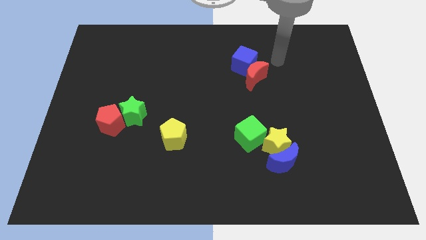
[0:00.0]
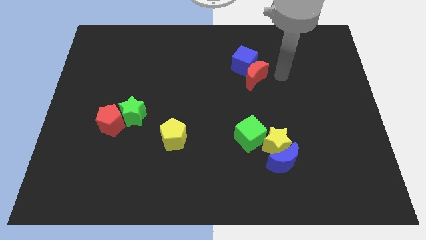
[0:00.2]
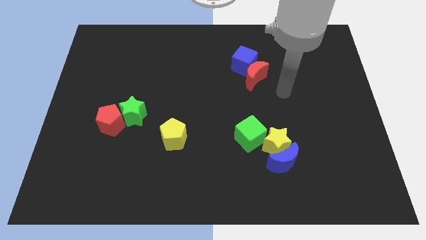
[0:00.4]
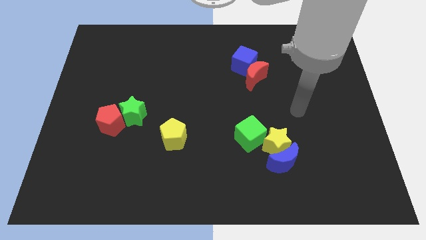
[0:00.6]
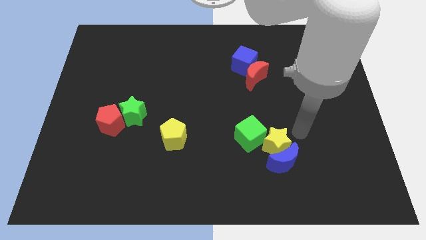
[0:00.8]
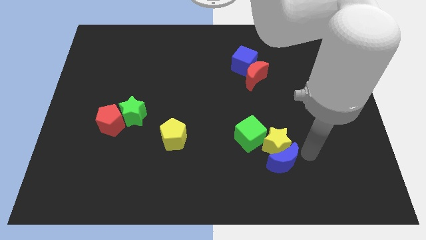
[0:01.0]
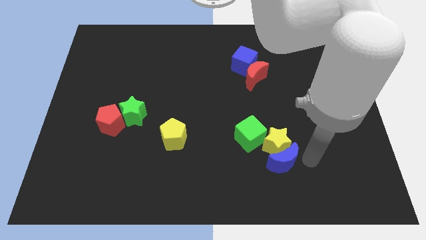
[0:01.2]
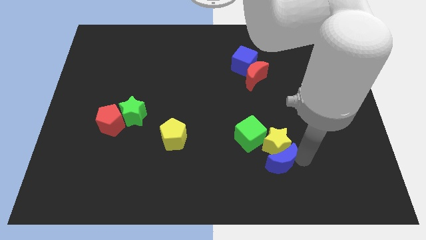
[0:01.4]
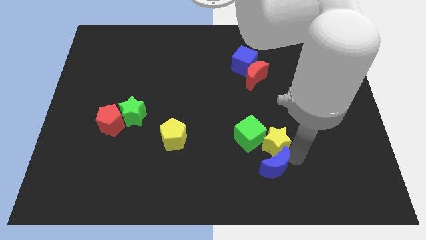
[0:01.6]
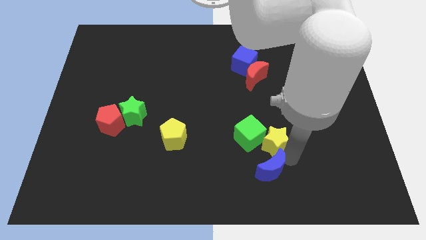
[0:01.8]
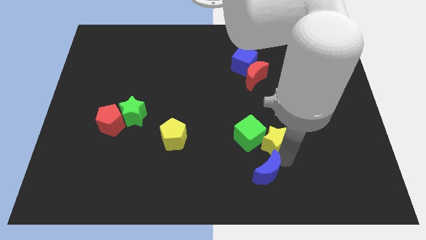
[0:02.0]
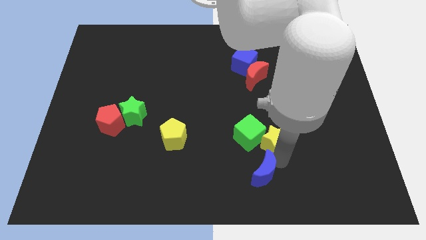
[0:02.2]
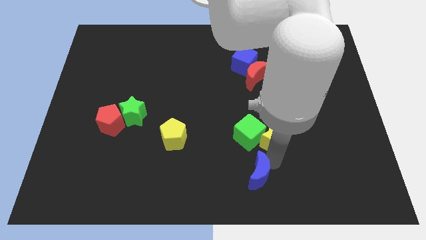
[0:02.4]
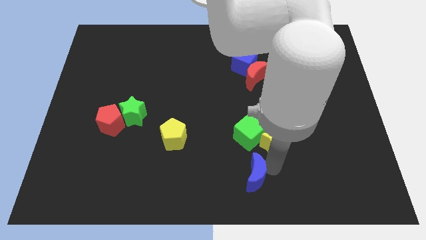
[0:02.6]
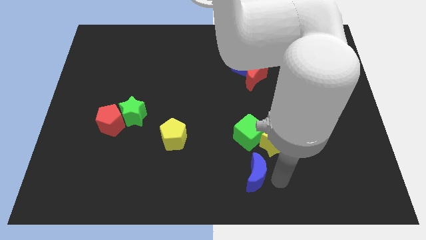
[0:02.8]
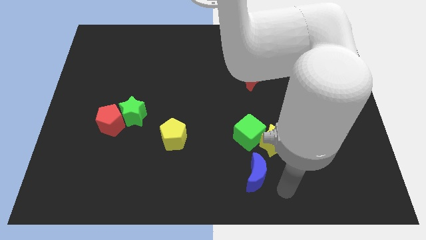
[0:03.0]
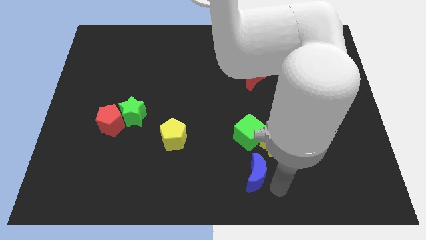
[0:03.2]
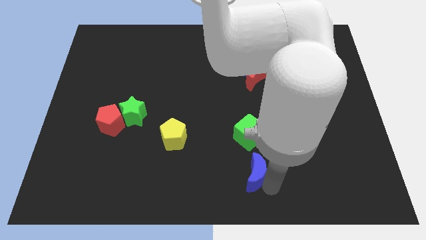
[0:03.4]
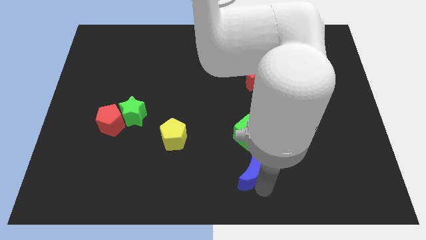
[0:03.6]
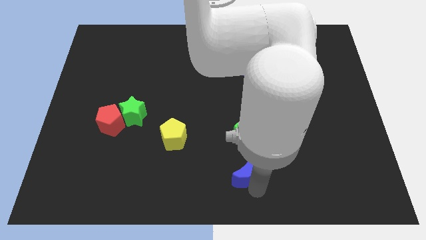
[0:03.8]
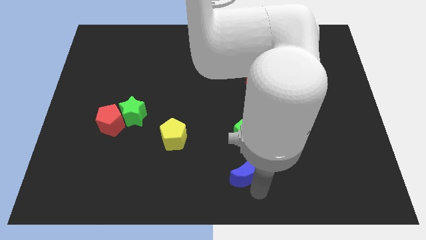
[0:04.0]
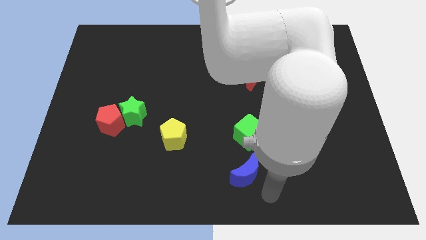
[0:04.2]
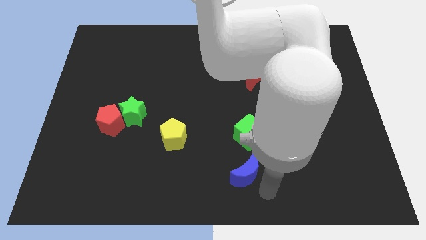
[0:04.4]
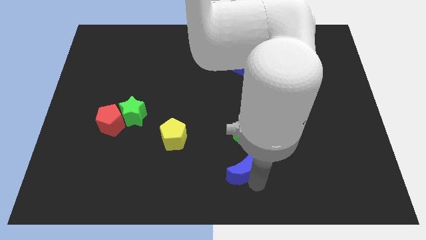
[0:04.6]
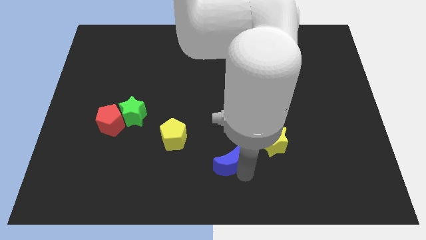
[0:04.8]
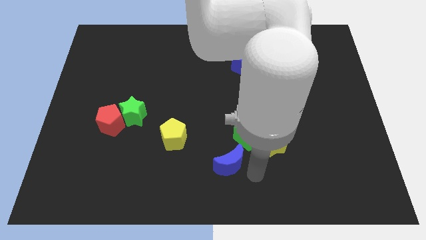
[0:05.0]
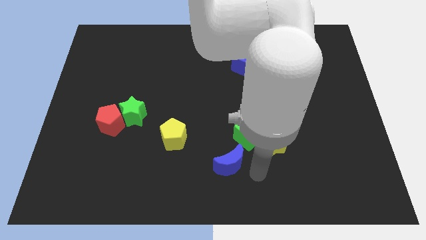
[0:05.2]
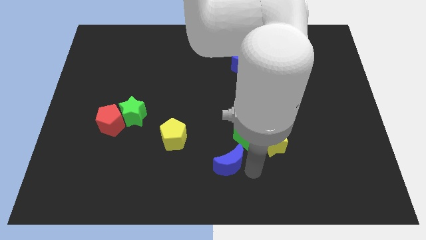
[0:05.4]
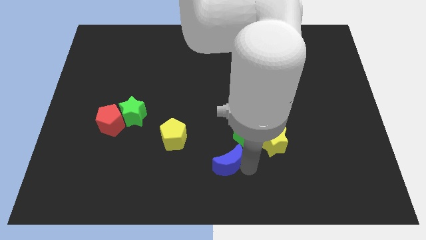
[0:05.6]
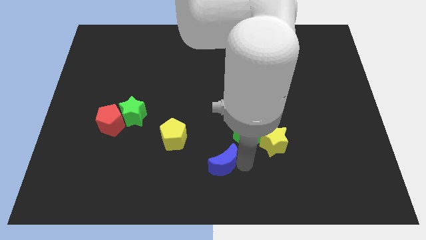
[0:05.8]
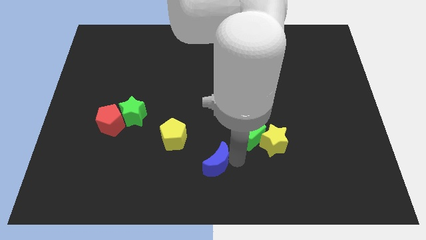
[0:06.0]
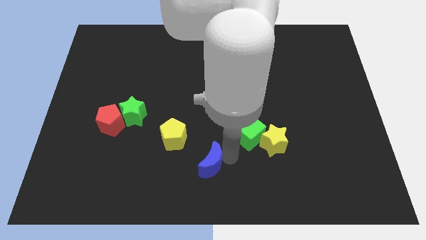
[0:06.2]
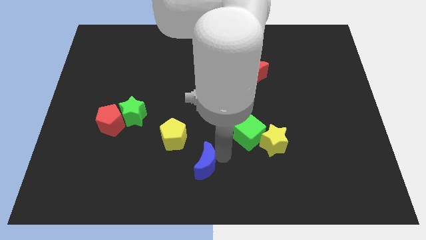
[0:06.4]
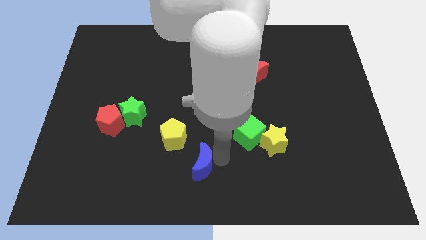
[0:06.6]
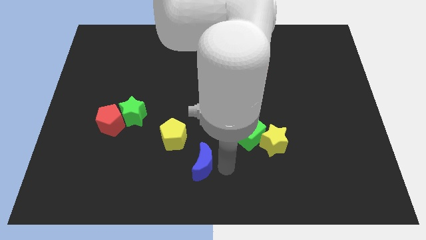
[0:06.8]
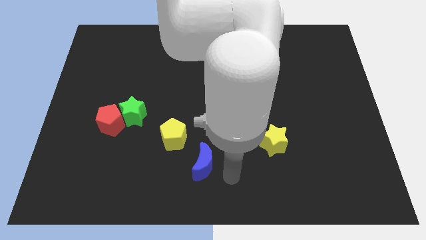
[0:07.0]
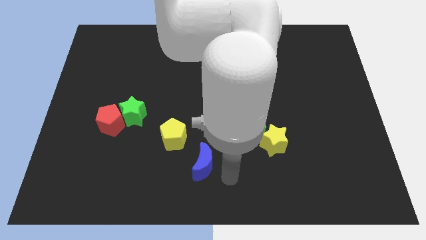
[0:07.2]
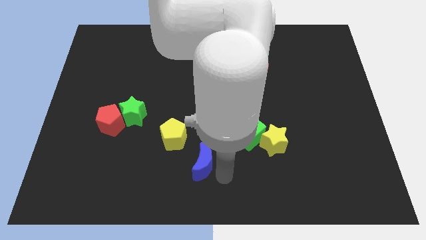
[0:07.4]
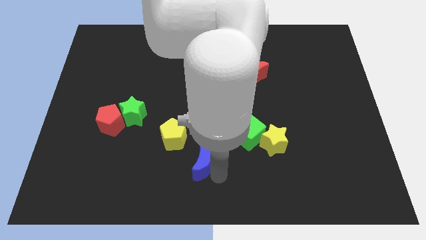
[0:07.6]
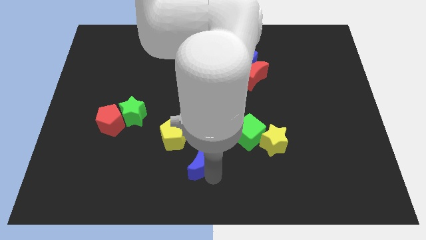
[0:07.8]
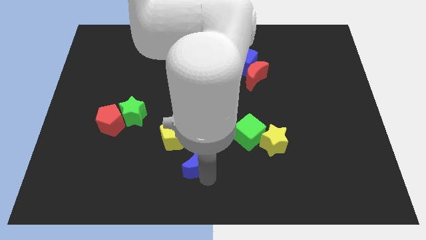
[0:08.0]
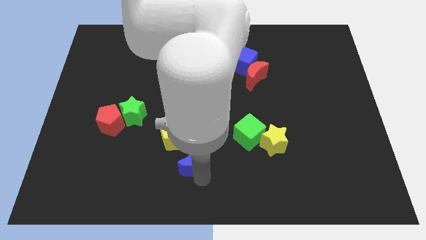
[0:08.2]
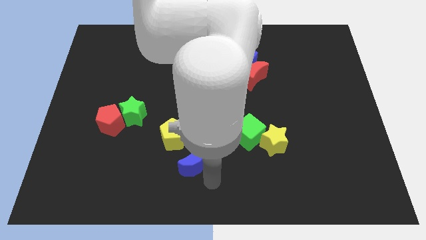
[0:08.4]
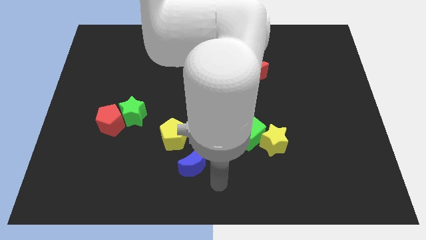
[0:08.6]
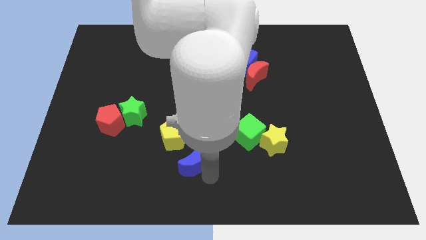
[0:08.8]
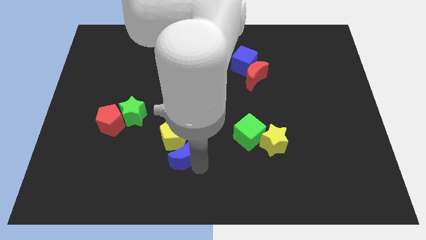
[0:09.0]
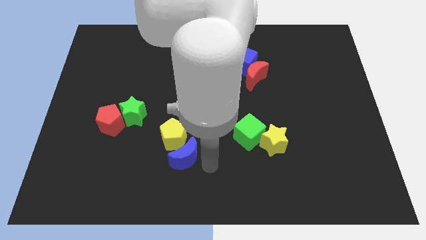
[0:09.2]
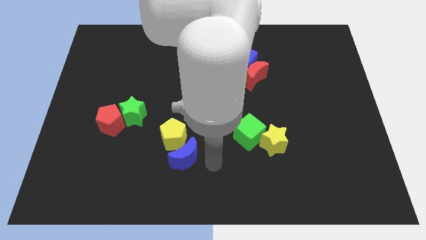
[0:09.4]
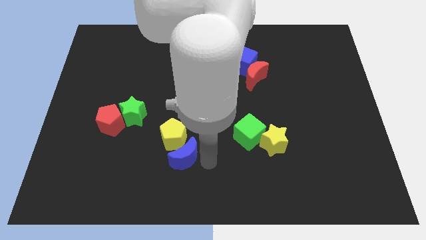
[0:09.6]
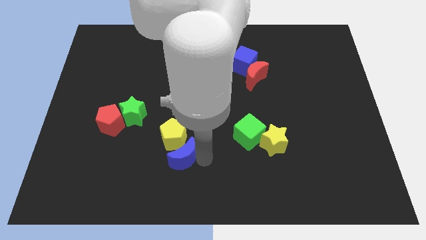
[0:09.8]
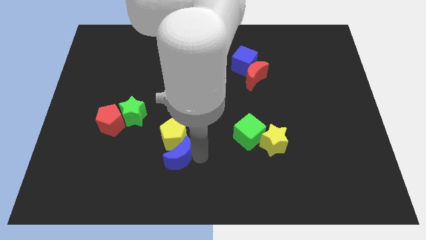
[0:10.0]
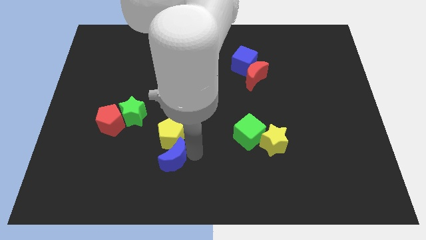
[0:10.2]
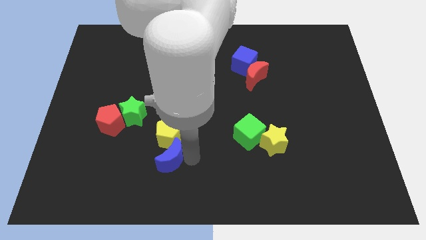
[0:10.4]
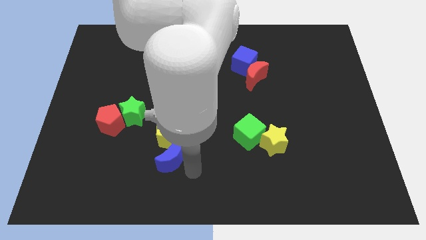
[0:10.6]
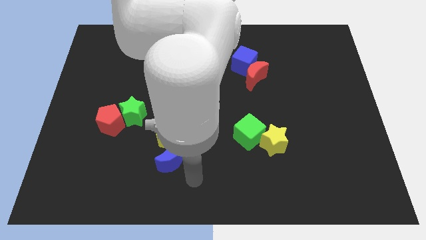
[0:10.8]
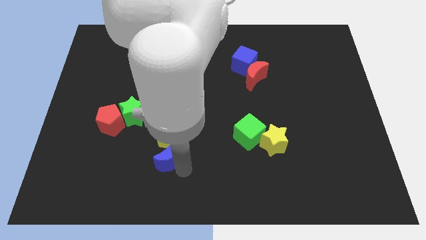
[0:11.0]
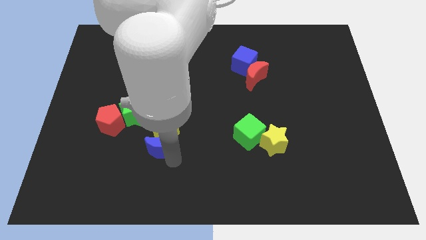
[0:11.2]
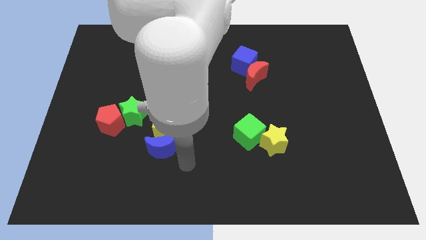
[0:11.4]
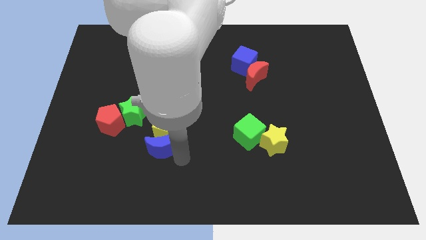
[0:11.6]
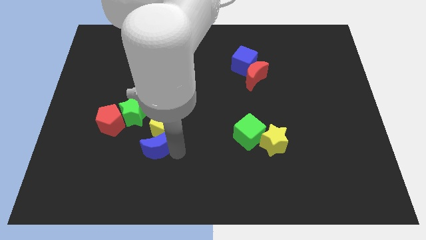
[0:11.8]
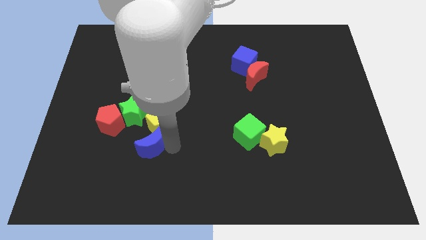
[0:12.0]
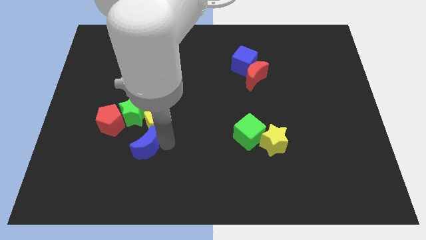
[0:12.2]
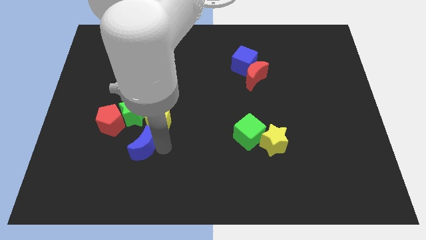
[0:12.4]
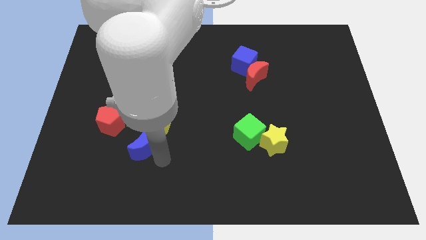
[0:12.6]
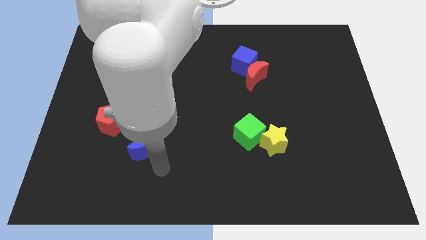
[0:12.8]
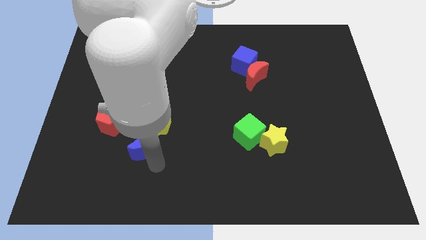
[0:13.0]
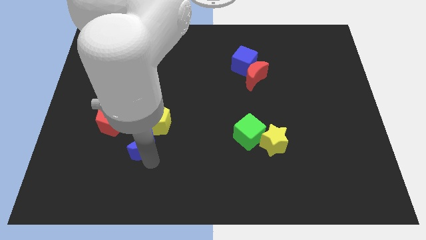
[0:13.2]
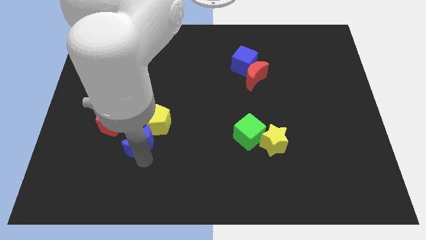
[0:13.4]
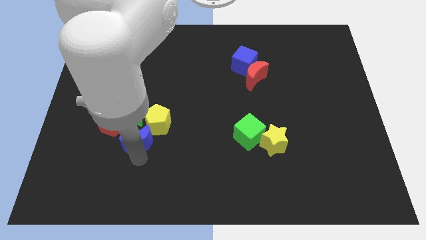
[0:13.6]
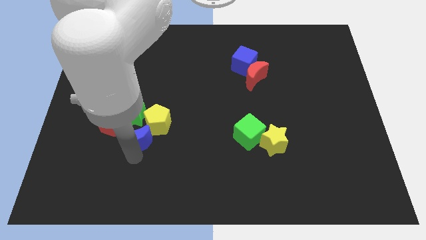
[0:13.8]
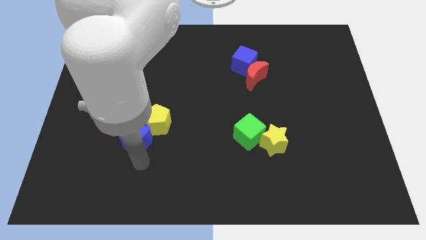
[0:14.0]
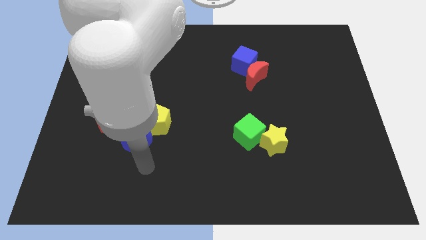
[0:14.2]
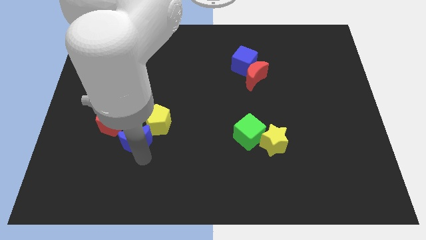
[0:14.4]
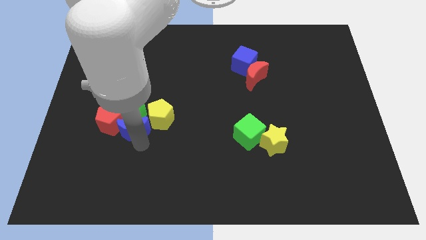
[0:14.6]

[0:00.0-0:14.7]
move the blue moon next to the red pentagon
